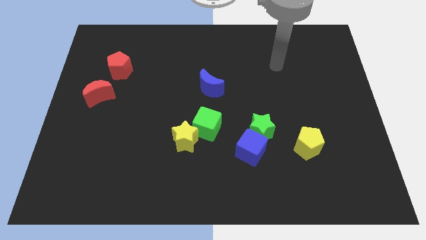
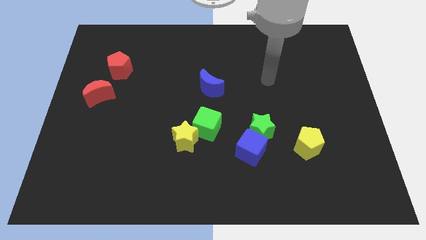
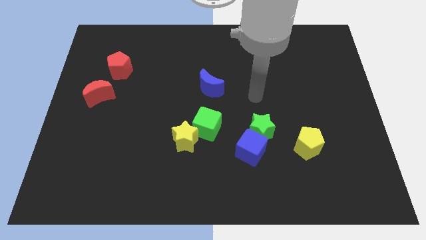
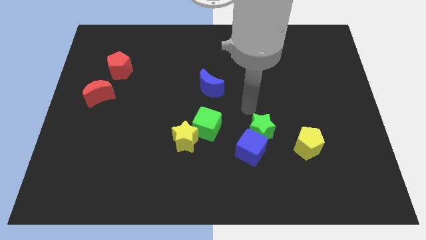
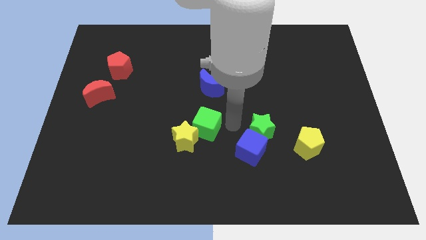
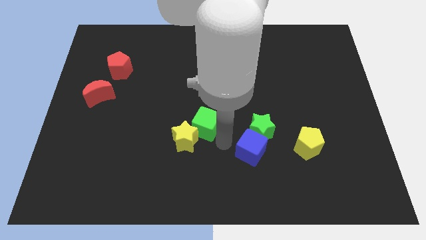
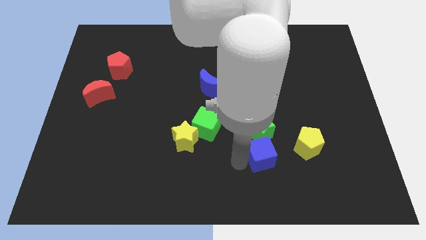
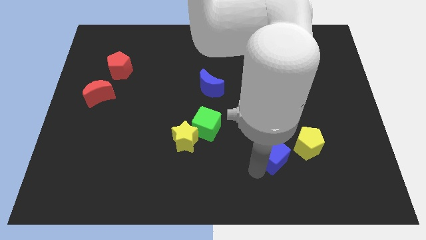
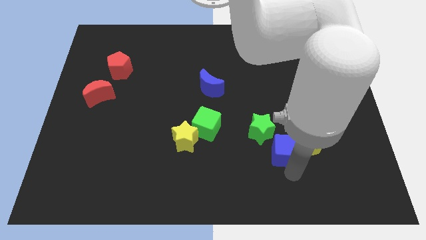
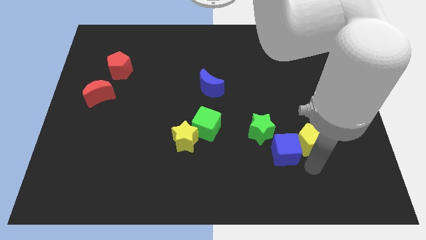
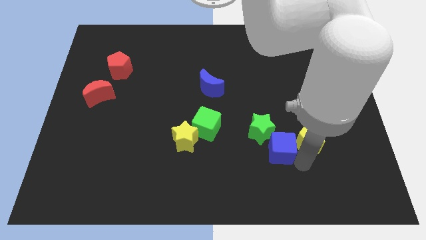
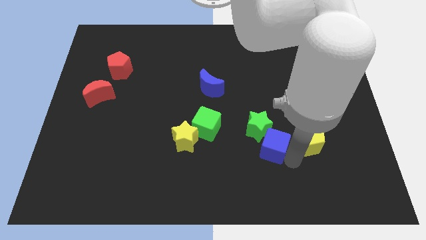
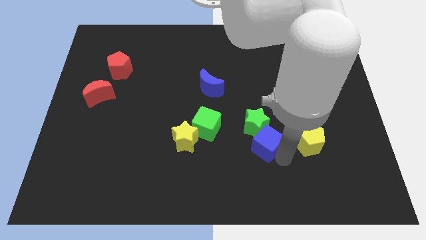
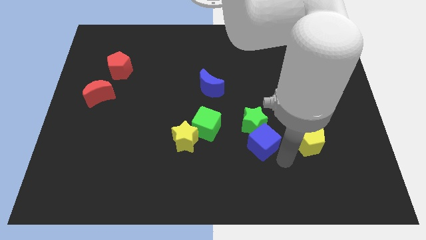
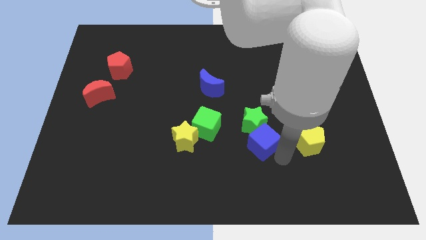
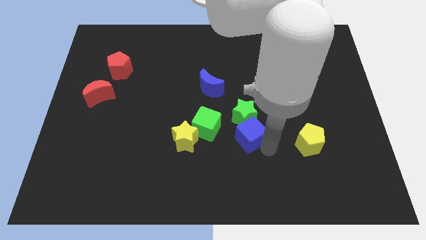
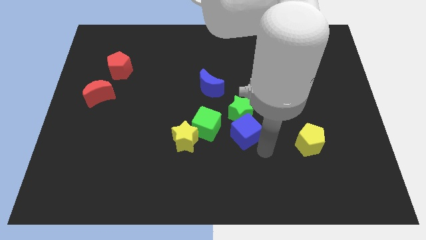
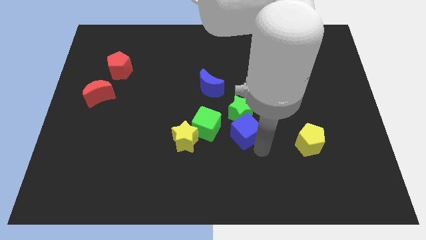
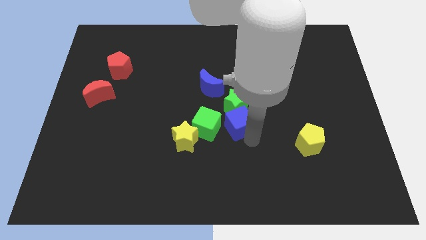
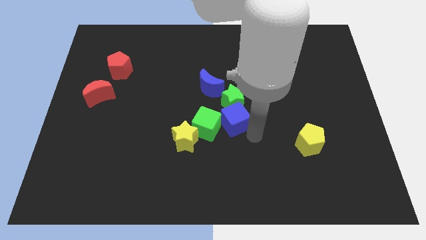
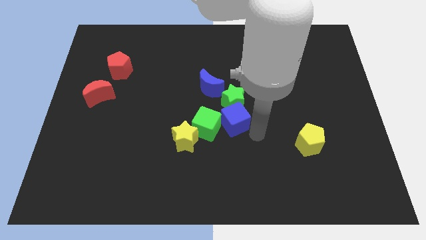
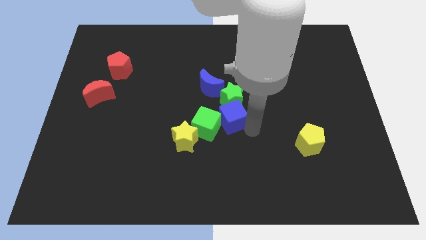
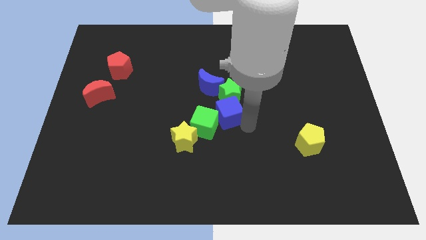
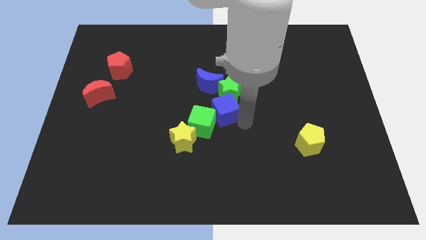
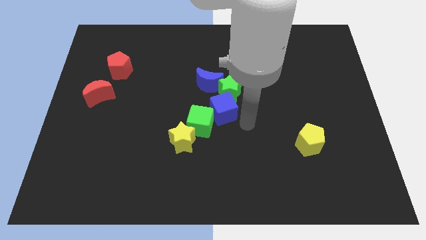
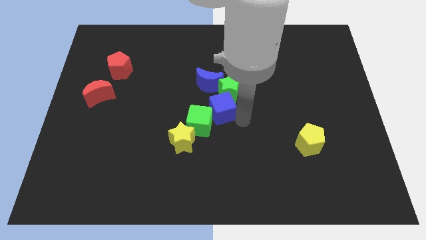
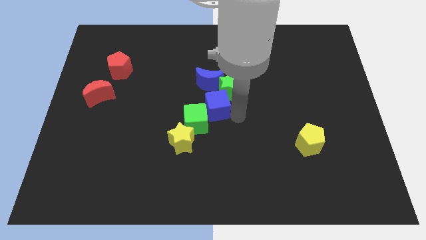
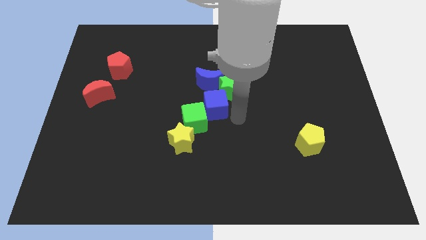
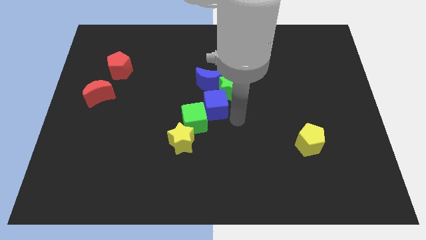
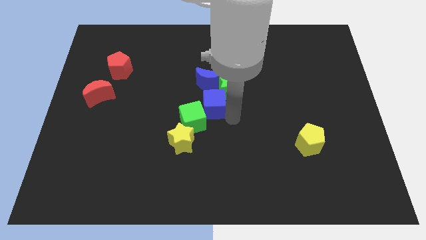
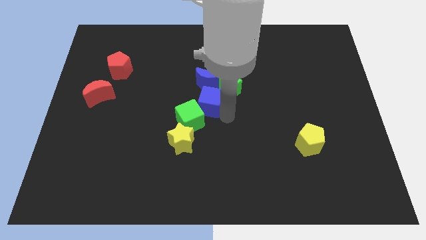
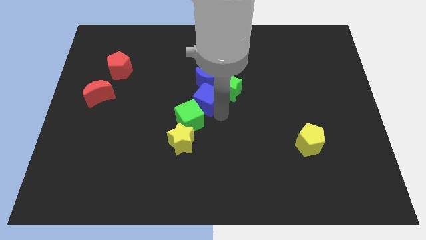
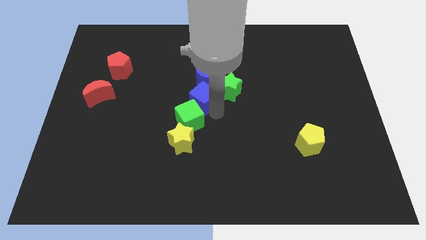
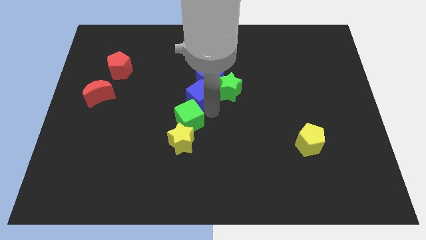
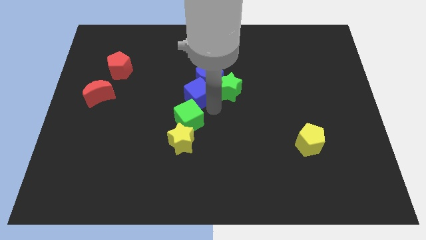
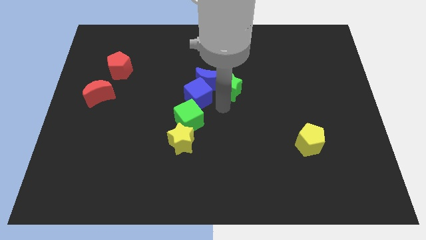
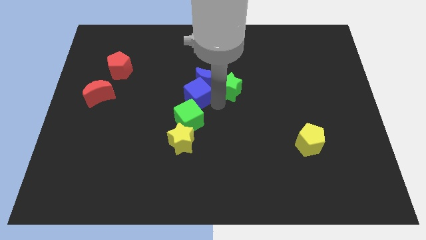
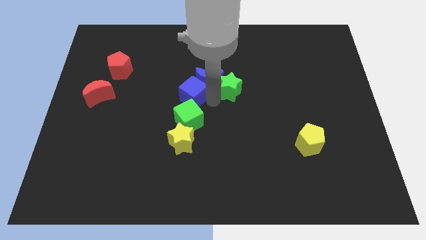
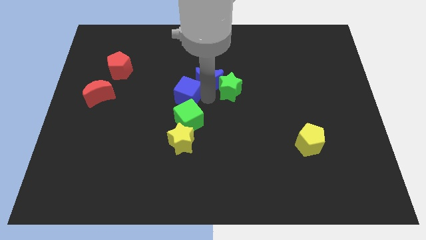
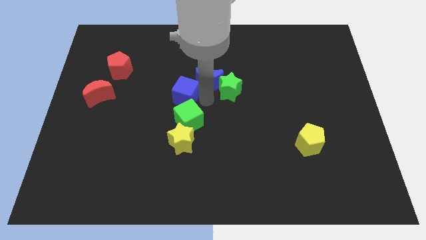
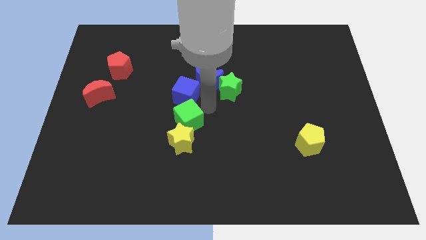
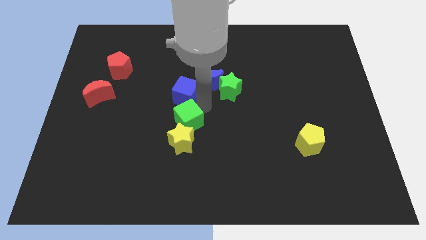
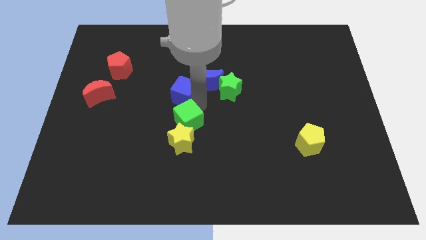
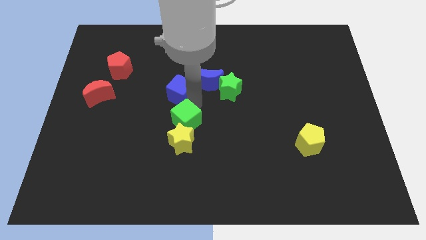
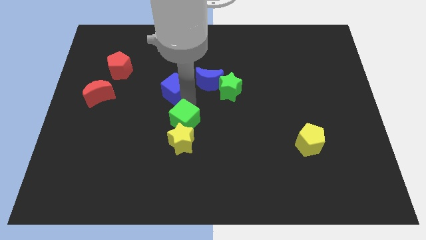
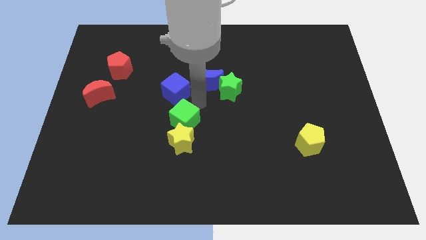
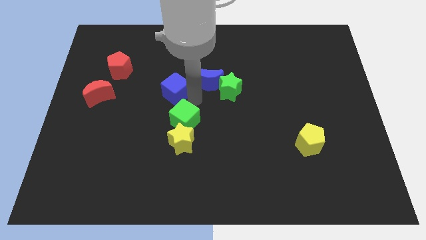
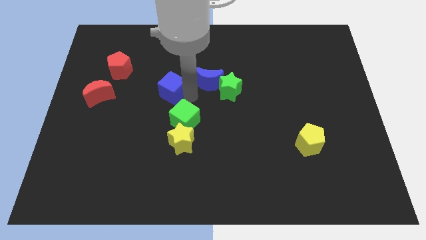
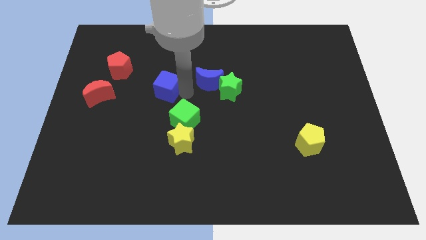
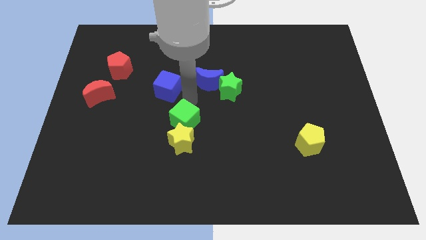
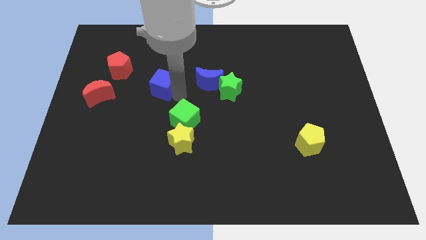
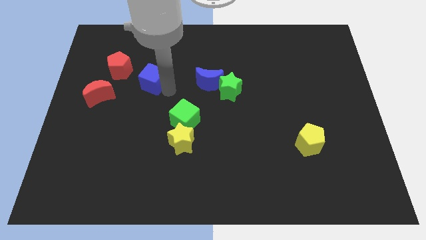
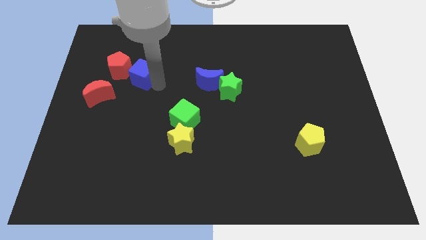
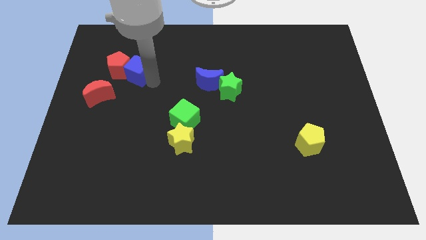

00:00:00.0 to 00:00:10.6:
move the blue cube close to the red pentagon

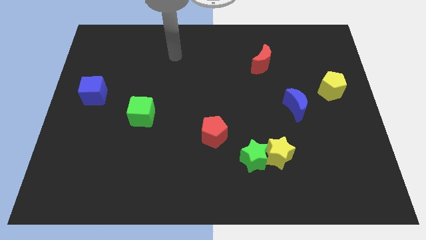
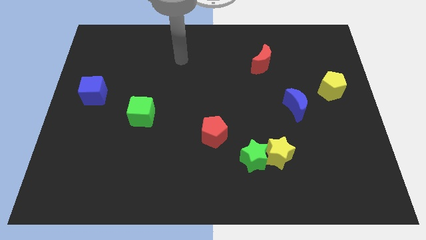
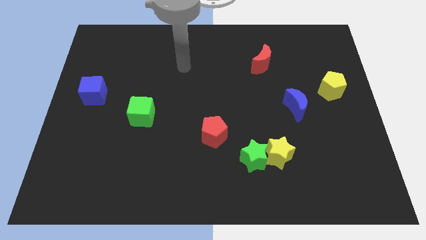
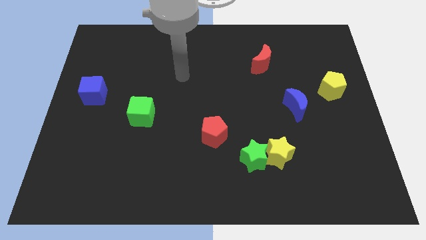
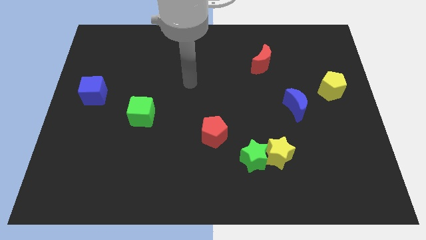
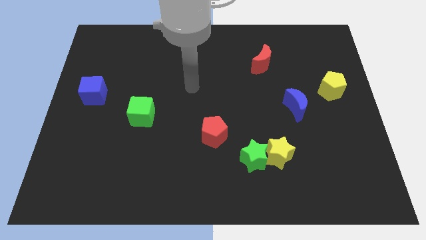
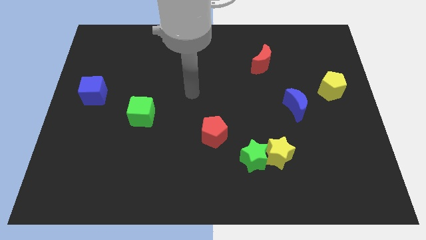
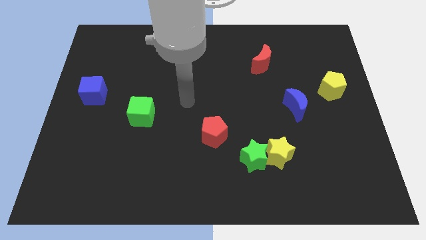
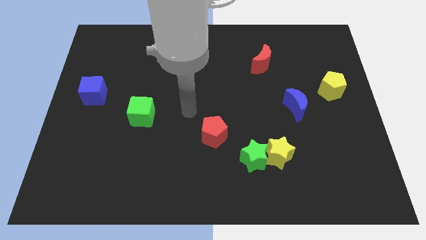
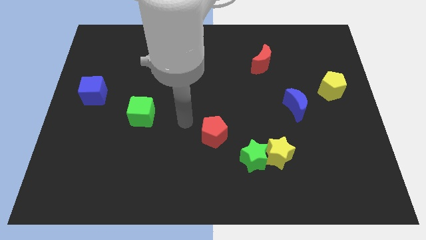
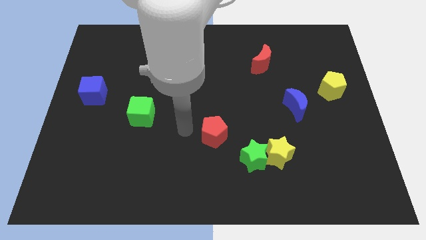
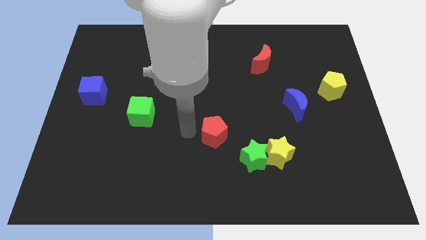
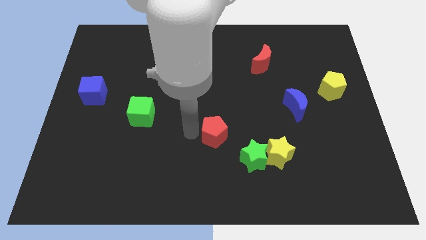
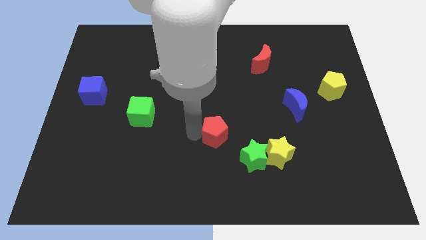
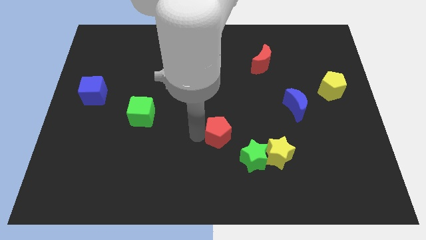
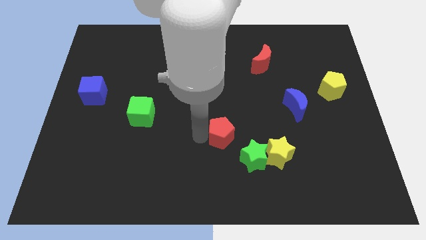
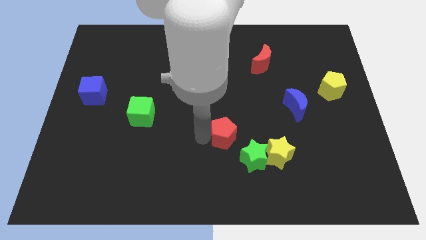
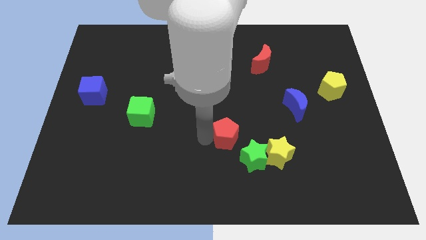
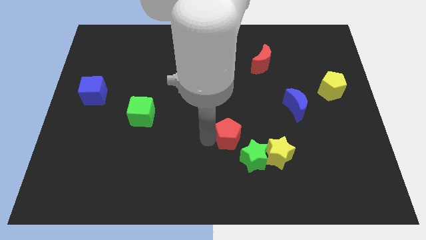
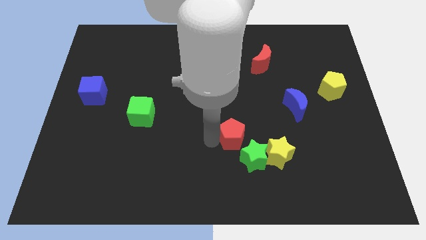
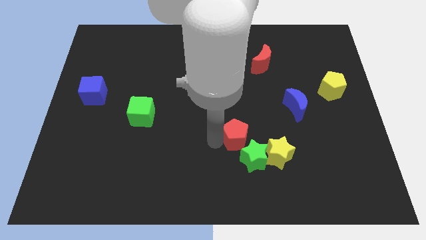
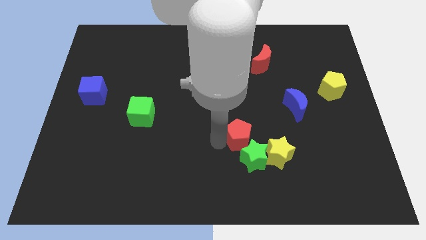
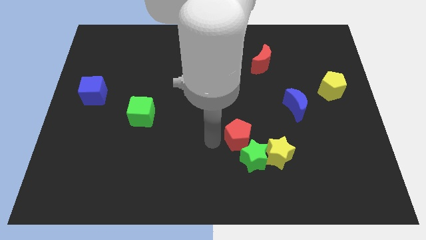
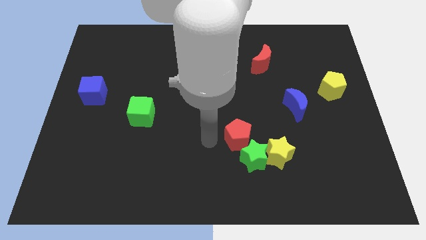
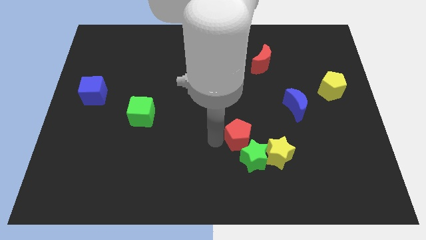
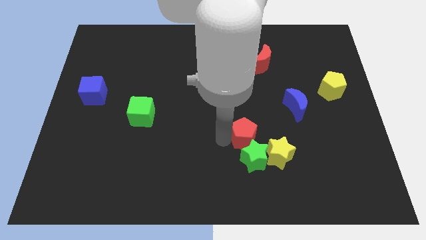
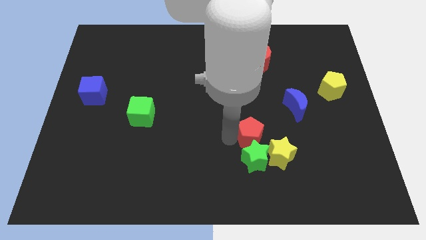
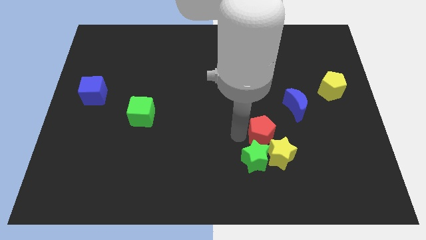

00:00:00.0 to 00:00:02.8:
put the red pentagon next to the yellow star
